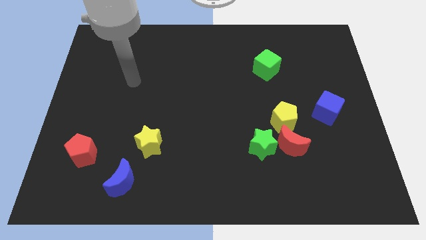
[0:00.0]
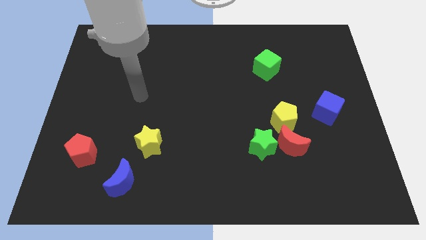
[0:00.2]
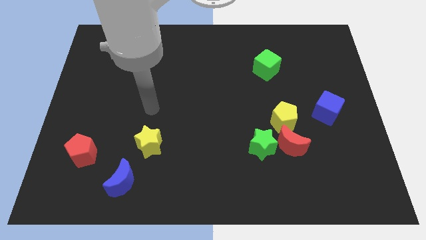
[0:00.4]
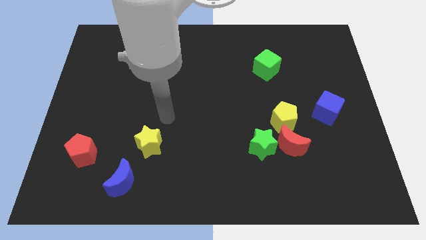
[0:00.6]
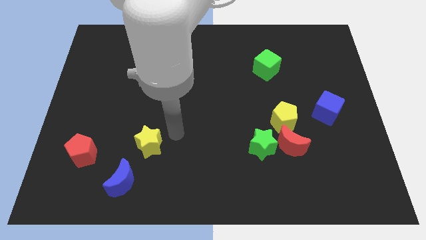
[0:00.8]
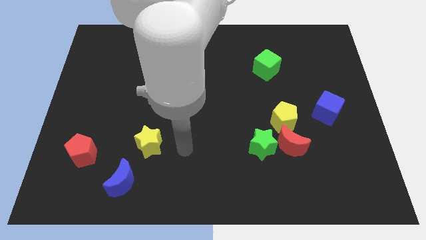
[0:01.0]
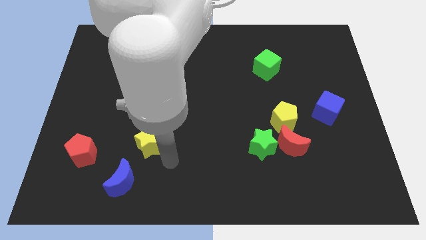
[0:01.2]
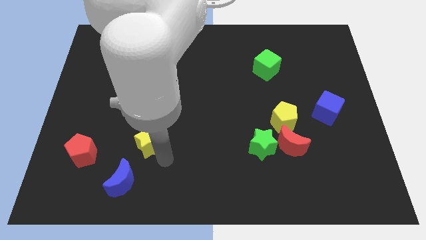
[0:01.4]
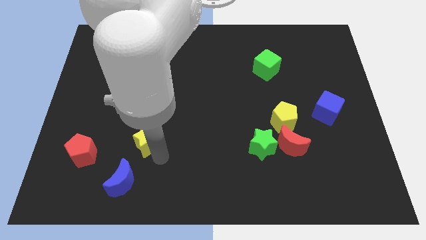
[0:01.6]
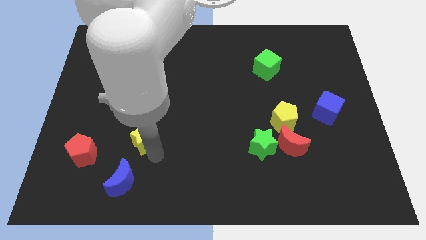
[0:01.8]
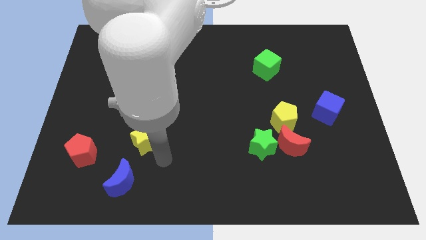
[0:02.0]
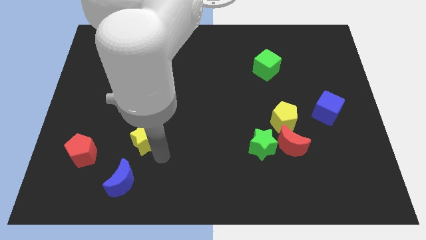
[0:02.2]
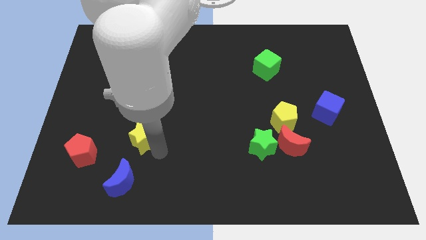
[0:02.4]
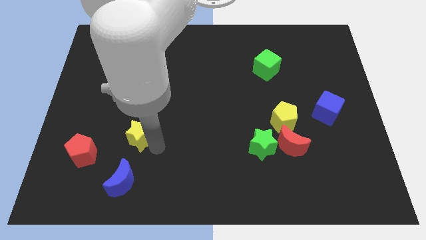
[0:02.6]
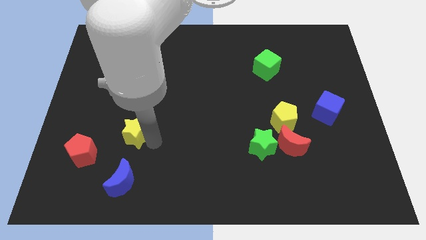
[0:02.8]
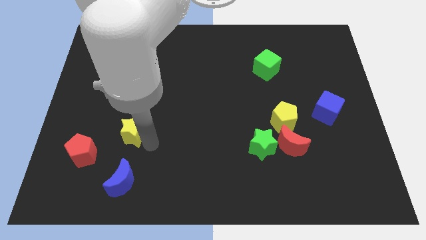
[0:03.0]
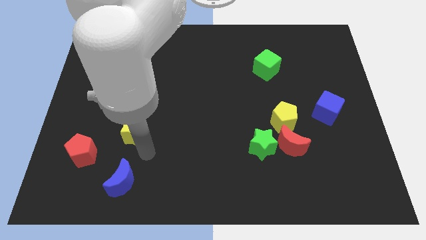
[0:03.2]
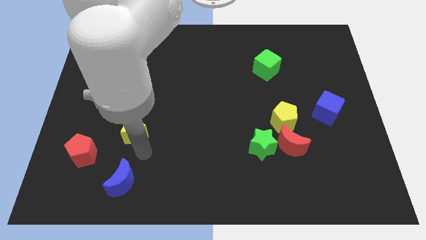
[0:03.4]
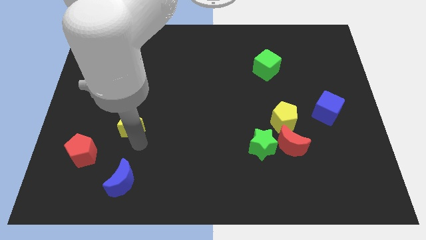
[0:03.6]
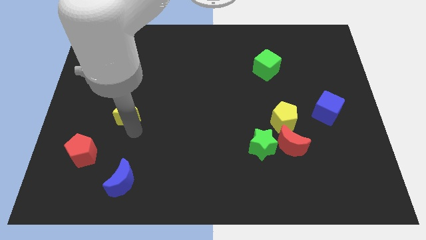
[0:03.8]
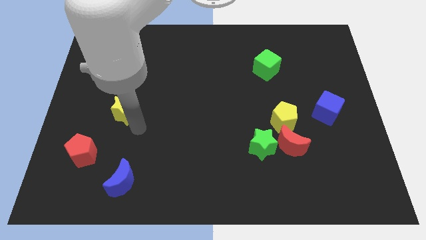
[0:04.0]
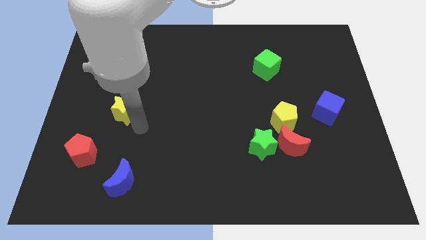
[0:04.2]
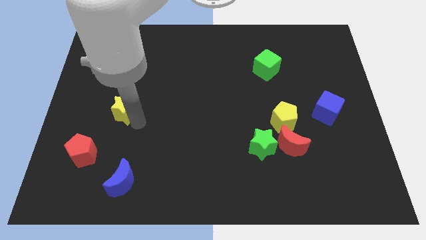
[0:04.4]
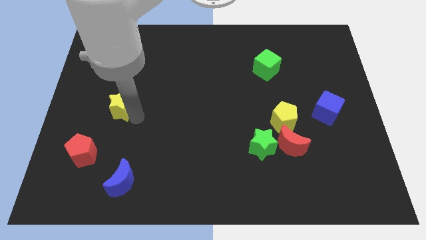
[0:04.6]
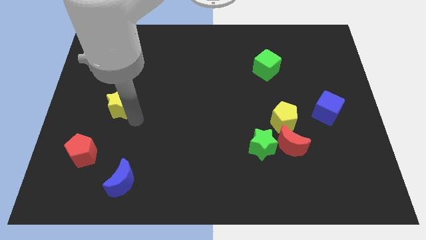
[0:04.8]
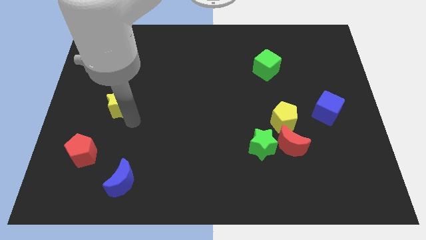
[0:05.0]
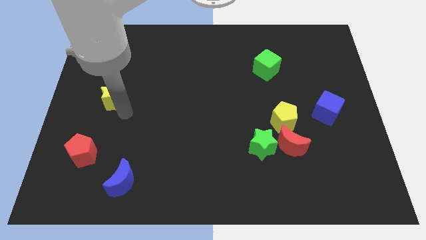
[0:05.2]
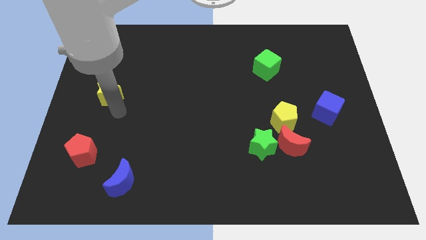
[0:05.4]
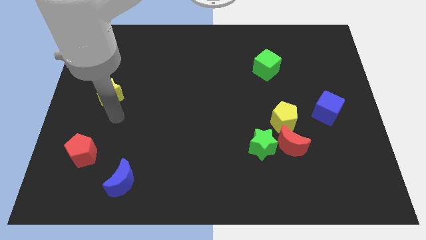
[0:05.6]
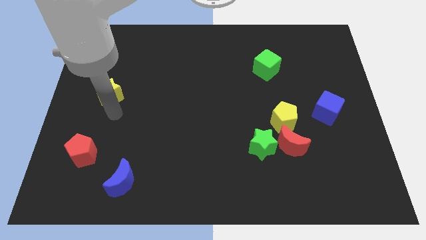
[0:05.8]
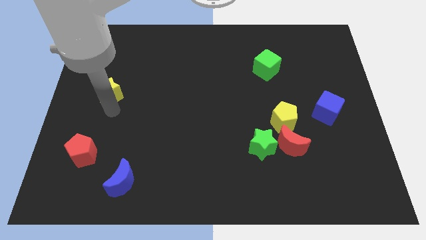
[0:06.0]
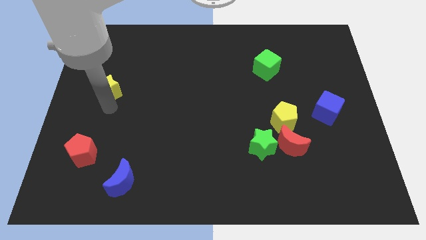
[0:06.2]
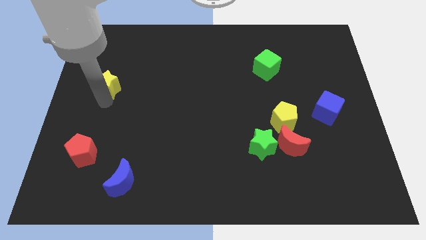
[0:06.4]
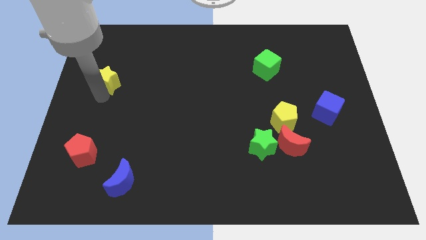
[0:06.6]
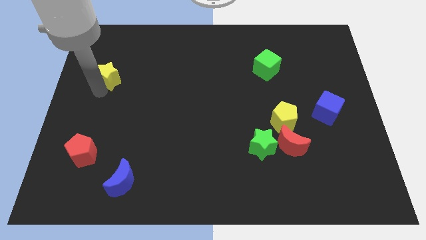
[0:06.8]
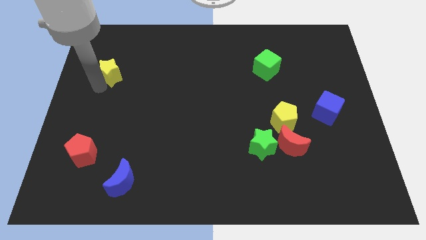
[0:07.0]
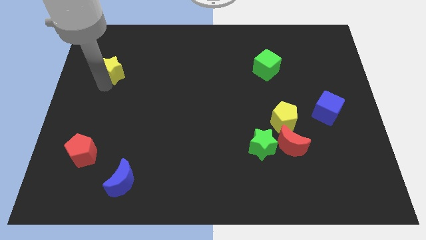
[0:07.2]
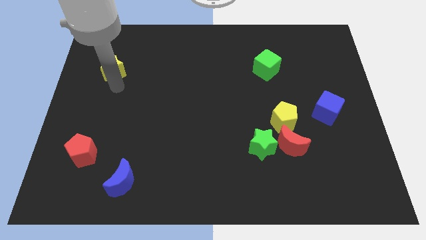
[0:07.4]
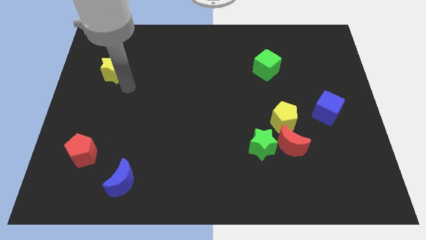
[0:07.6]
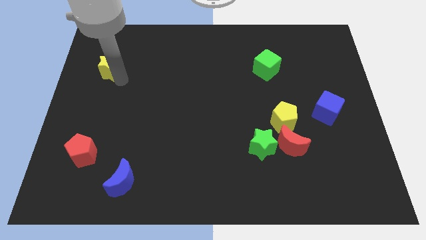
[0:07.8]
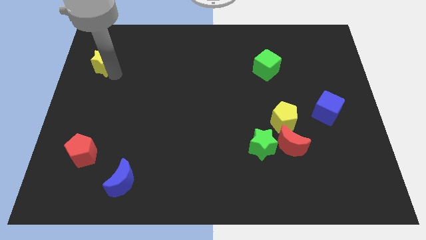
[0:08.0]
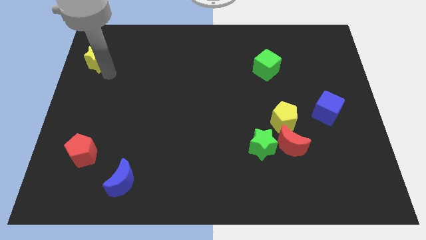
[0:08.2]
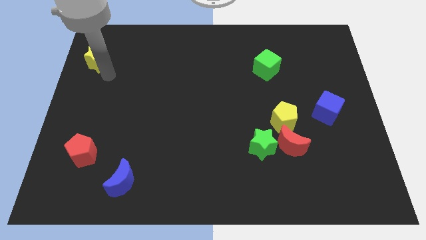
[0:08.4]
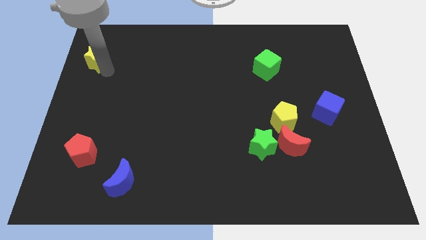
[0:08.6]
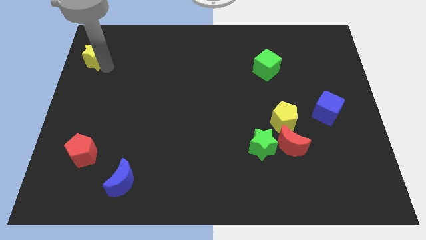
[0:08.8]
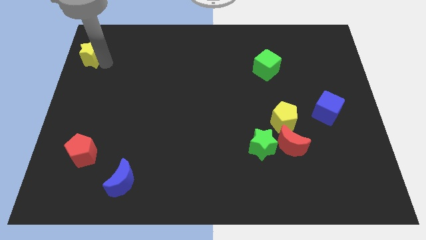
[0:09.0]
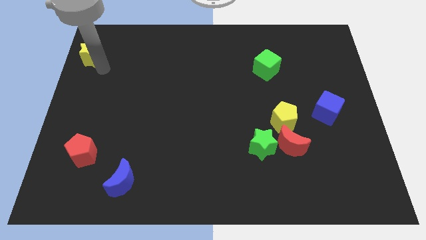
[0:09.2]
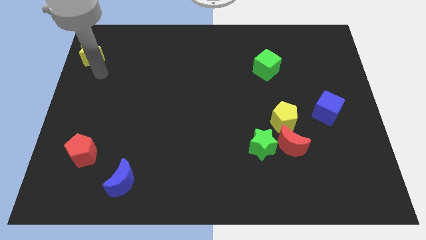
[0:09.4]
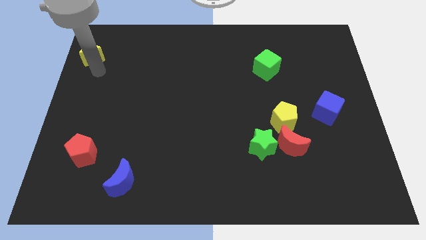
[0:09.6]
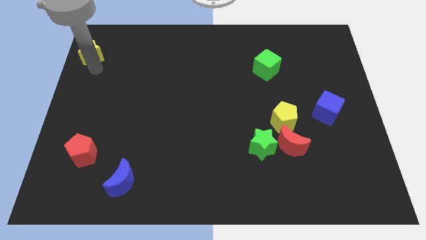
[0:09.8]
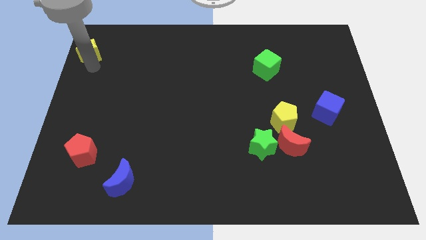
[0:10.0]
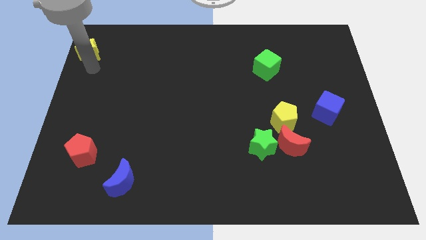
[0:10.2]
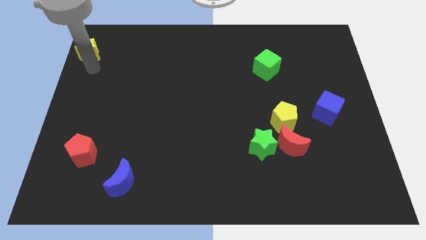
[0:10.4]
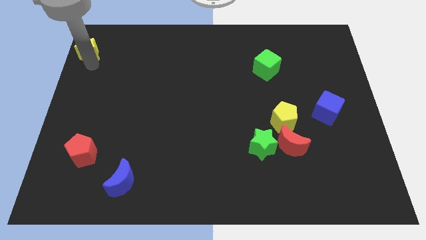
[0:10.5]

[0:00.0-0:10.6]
push the yellow star to the upper left corner
